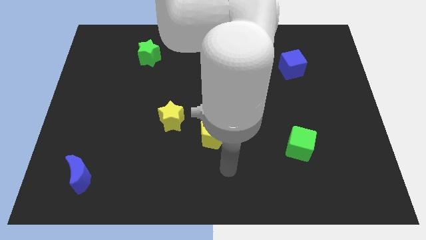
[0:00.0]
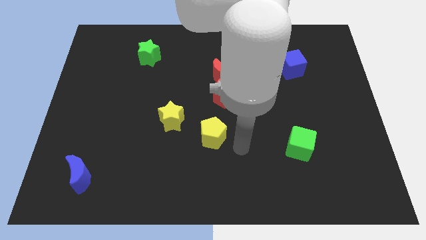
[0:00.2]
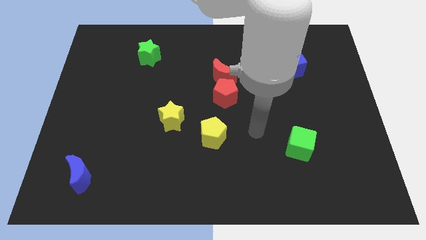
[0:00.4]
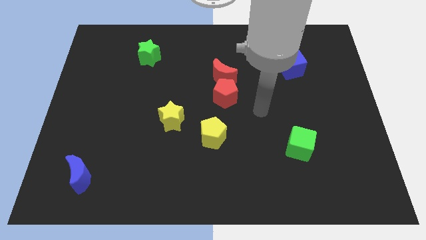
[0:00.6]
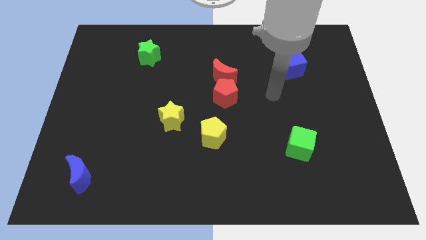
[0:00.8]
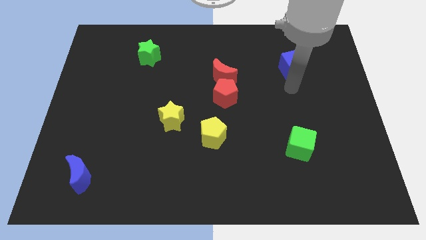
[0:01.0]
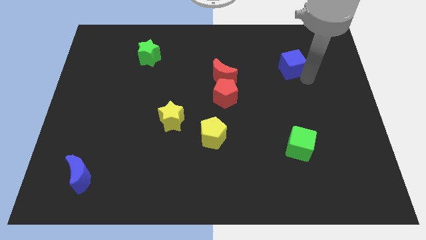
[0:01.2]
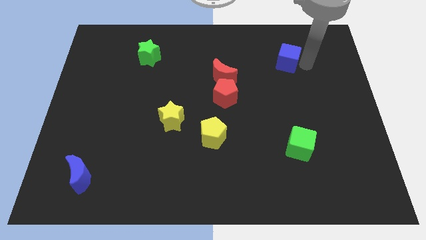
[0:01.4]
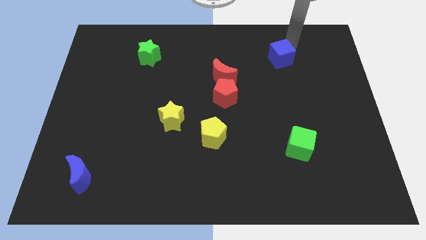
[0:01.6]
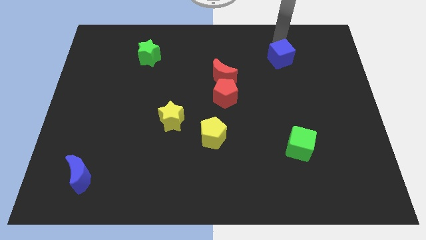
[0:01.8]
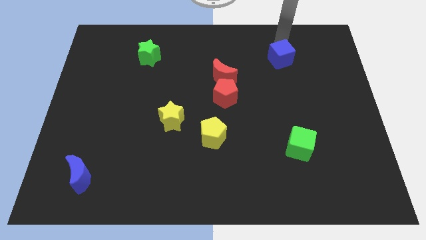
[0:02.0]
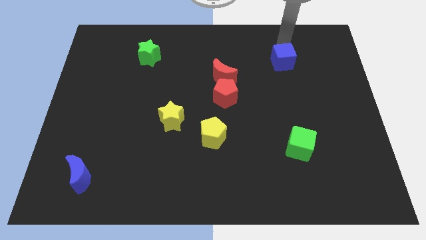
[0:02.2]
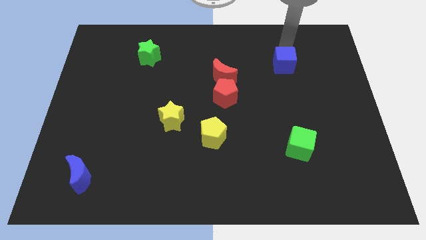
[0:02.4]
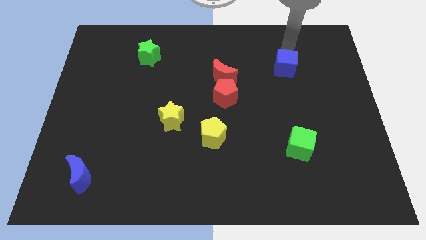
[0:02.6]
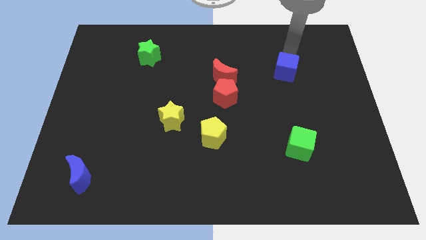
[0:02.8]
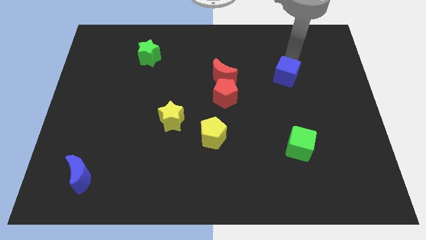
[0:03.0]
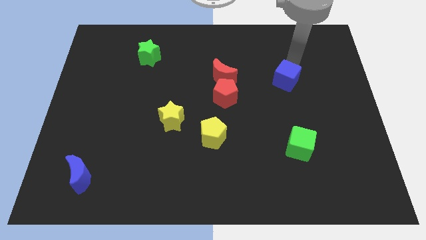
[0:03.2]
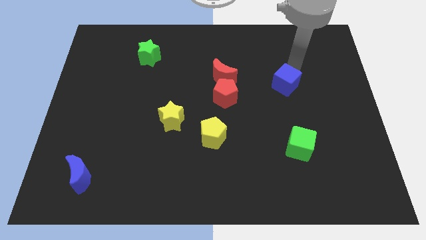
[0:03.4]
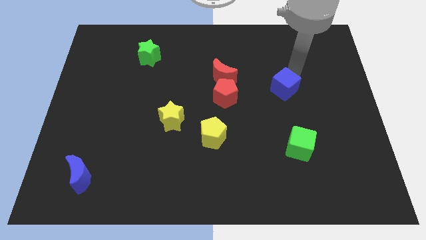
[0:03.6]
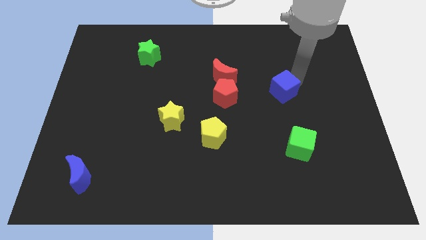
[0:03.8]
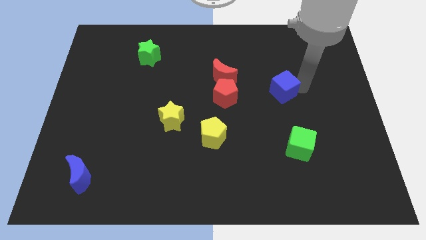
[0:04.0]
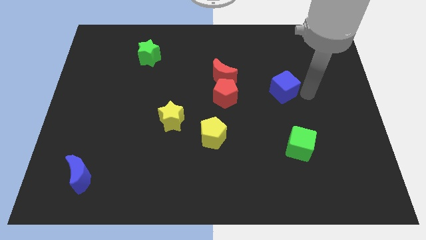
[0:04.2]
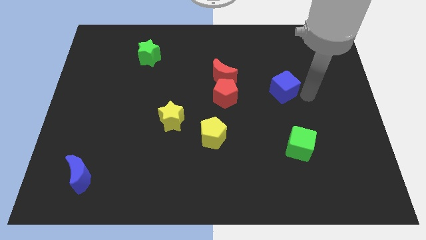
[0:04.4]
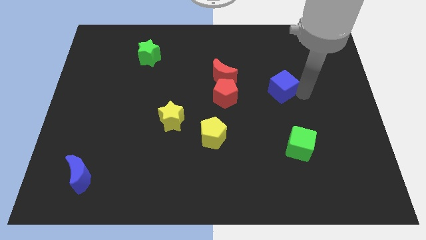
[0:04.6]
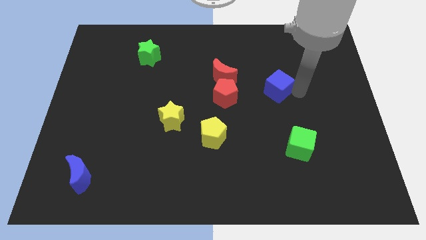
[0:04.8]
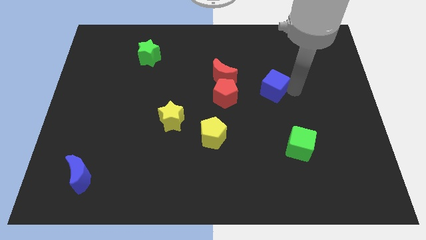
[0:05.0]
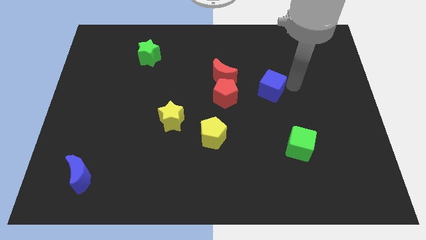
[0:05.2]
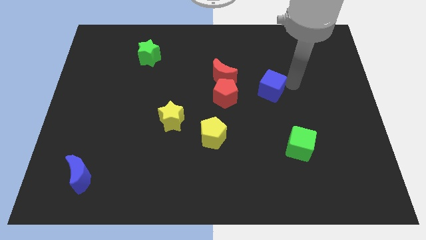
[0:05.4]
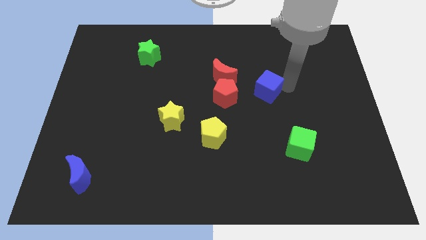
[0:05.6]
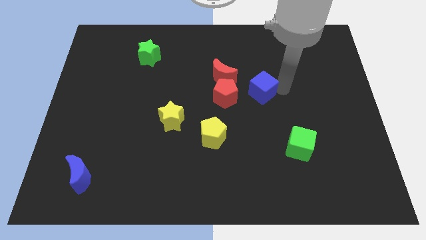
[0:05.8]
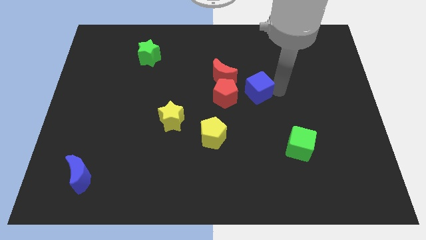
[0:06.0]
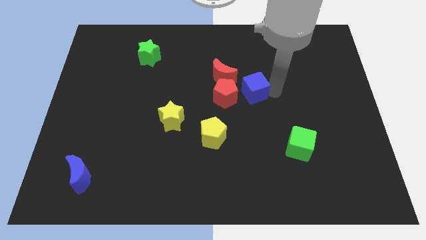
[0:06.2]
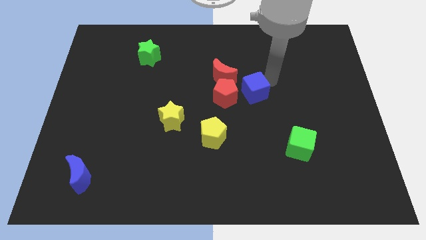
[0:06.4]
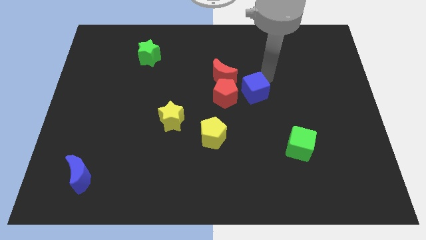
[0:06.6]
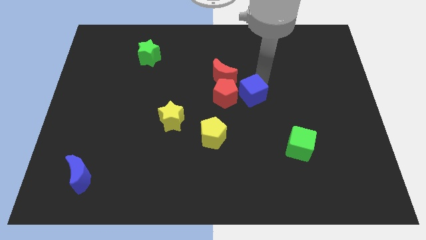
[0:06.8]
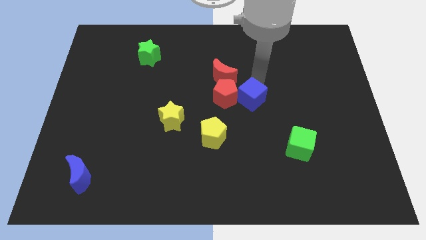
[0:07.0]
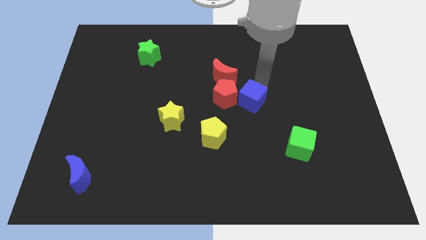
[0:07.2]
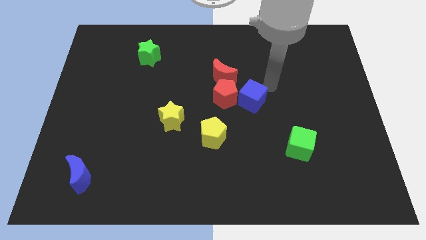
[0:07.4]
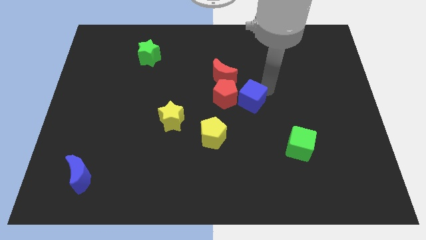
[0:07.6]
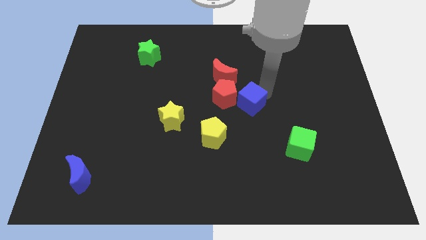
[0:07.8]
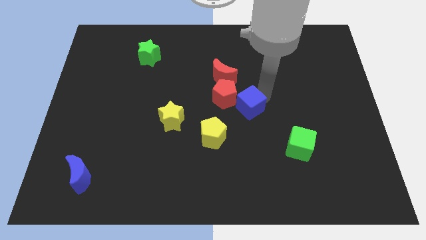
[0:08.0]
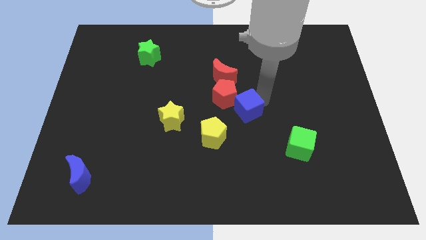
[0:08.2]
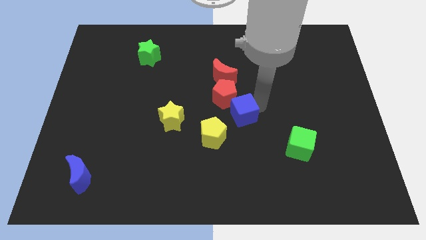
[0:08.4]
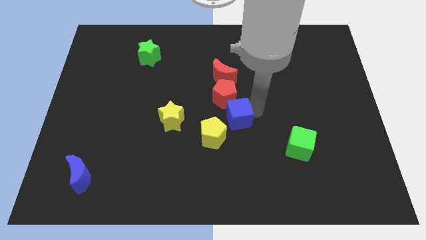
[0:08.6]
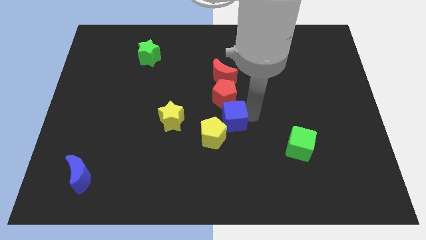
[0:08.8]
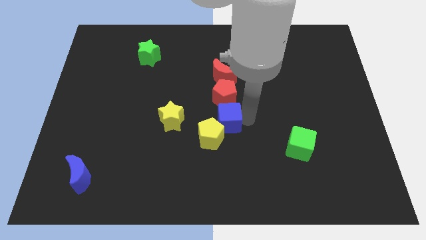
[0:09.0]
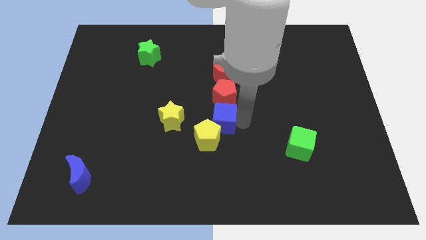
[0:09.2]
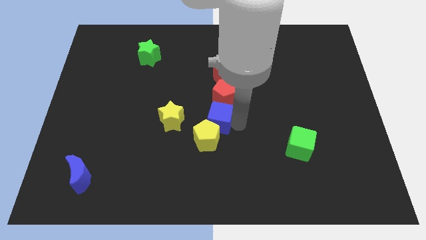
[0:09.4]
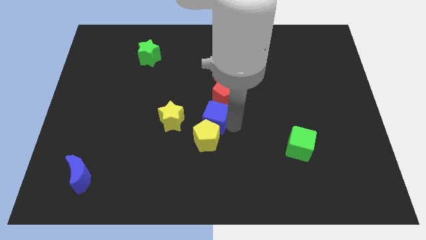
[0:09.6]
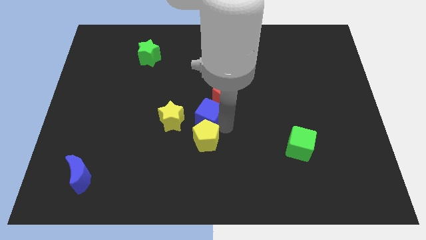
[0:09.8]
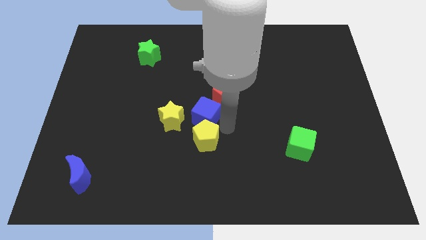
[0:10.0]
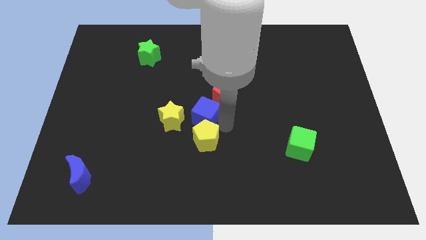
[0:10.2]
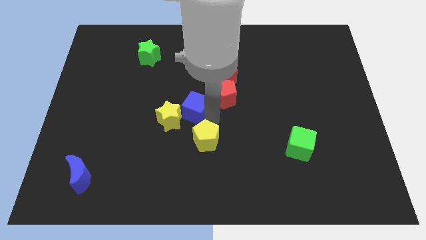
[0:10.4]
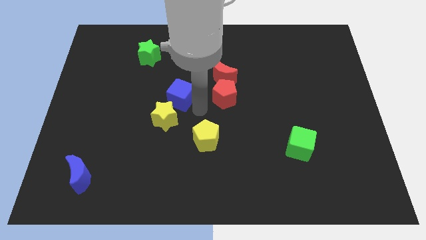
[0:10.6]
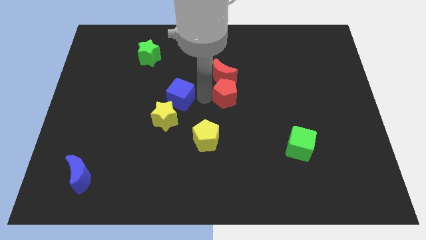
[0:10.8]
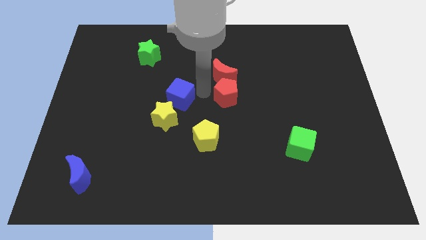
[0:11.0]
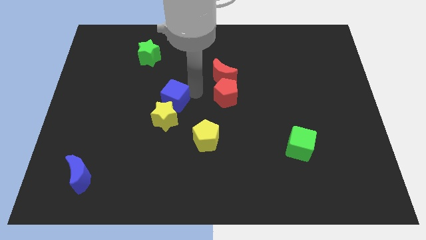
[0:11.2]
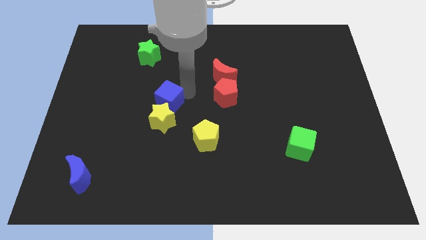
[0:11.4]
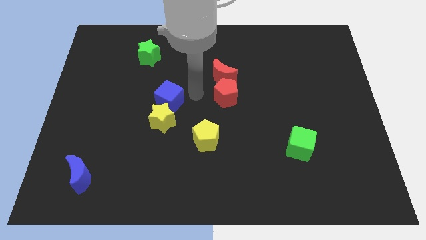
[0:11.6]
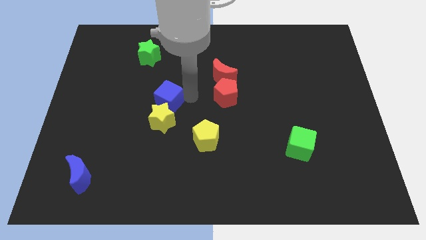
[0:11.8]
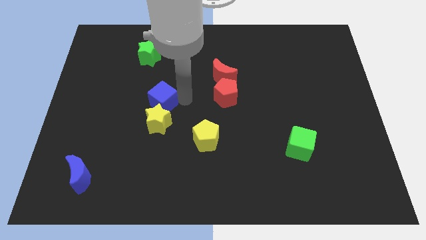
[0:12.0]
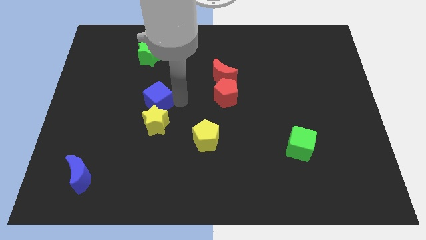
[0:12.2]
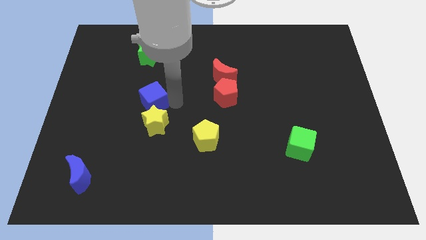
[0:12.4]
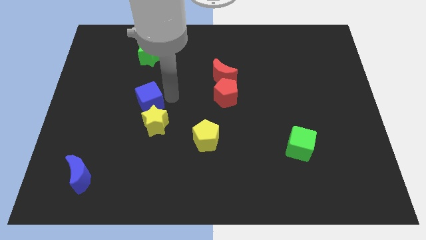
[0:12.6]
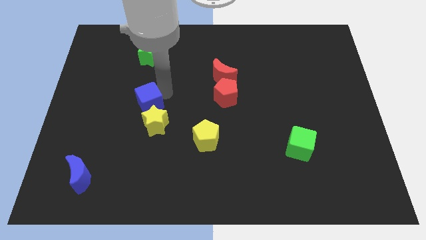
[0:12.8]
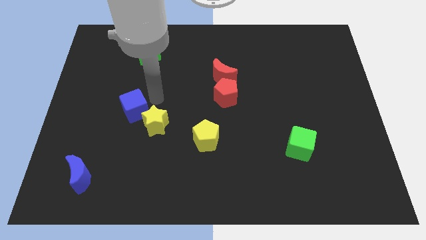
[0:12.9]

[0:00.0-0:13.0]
push the blue cube to the left side of the yellow star
